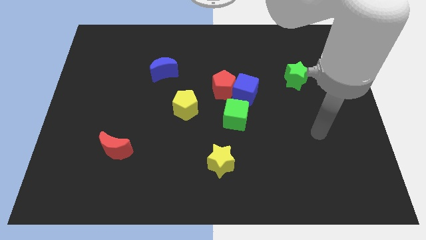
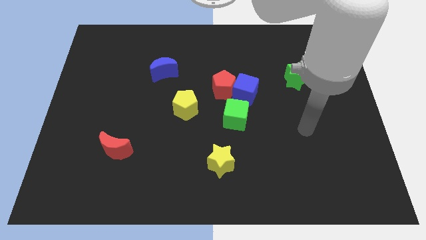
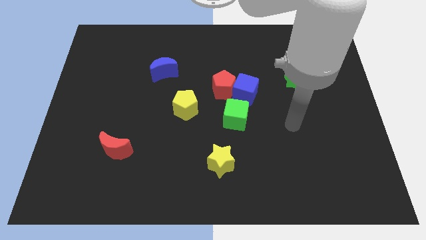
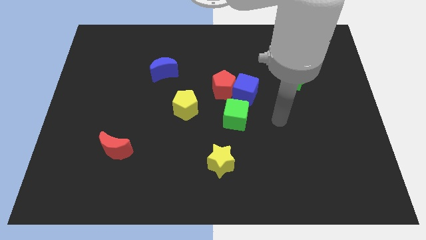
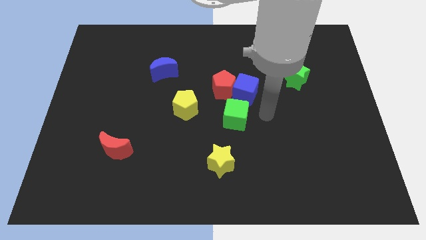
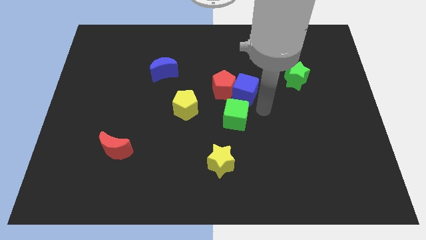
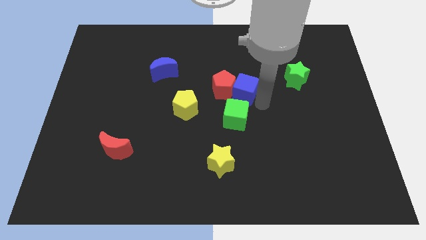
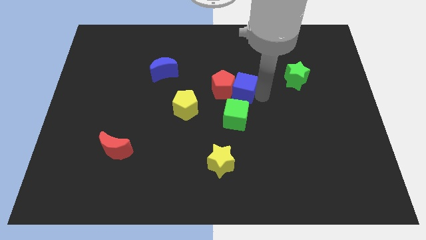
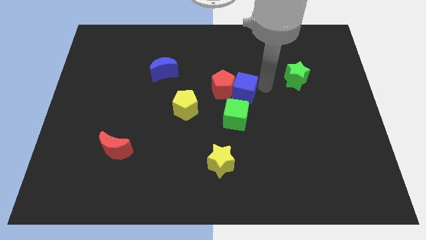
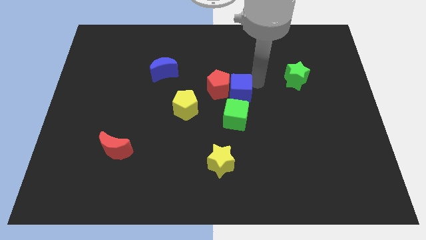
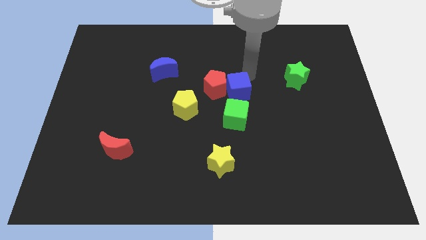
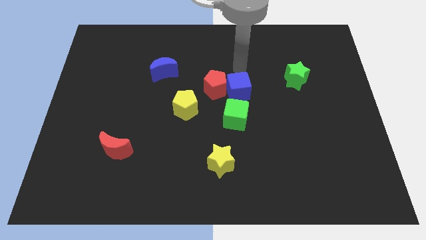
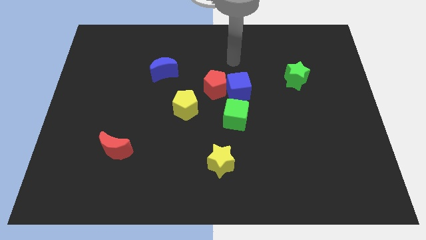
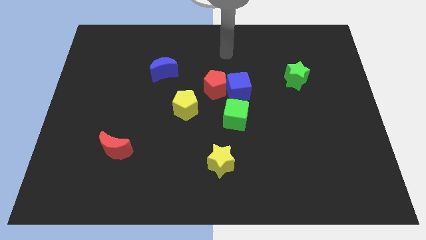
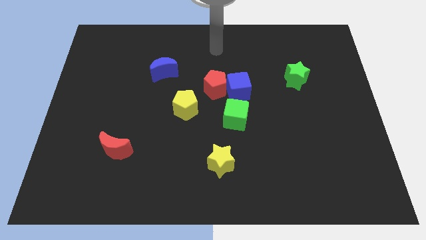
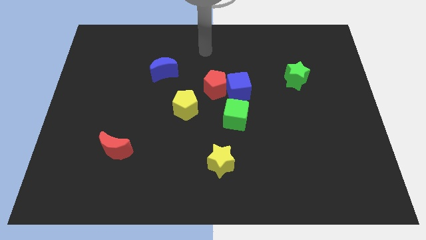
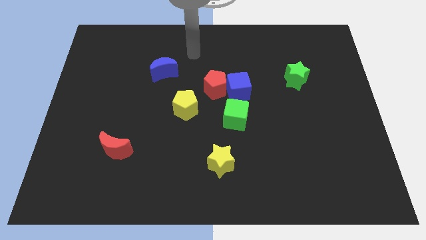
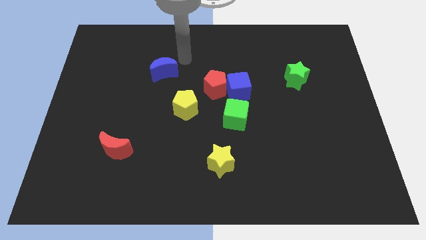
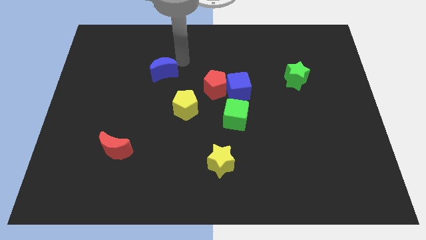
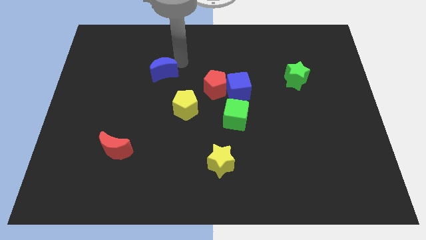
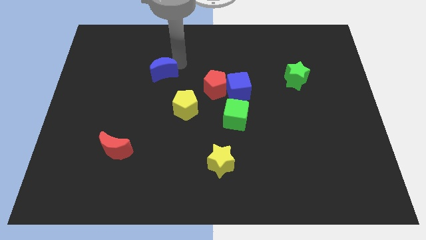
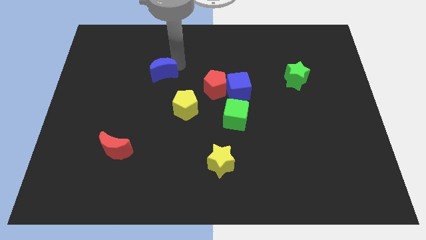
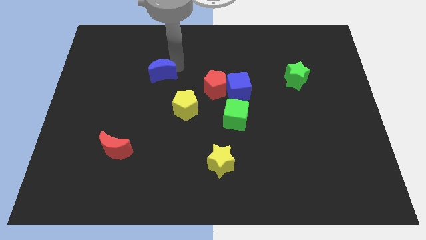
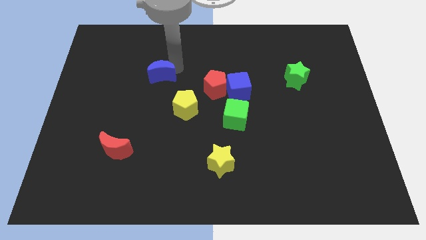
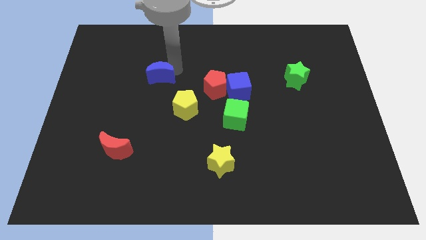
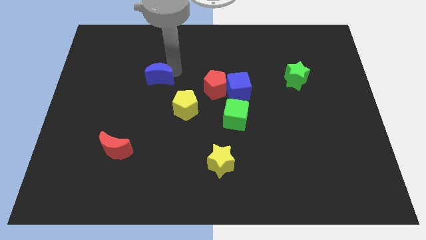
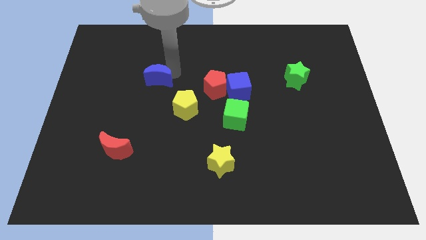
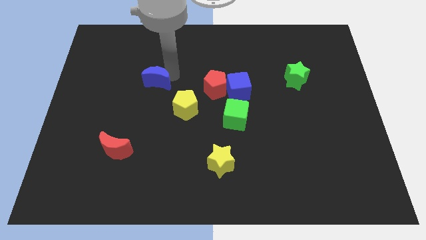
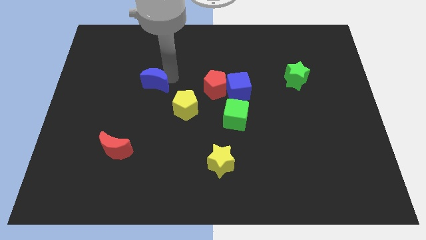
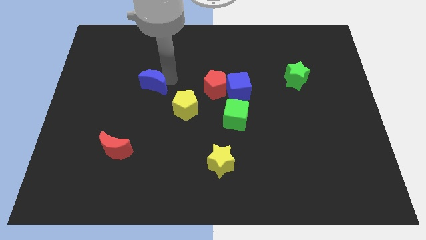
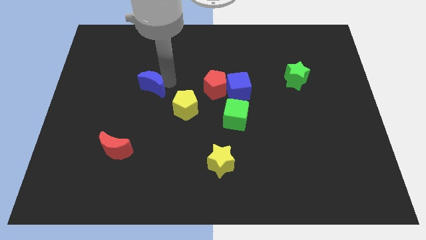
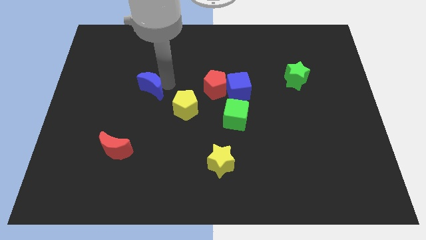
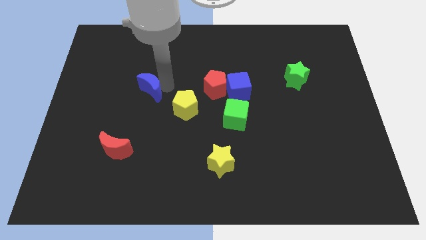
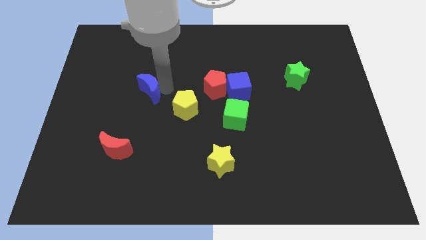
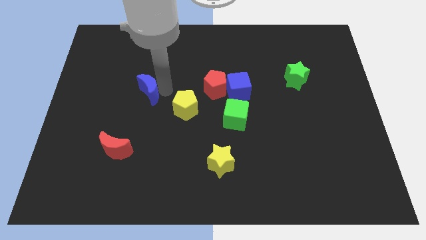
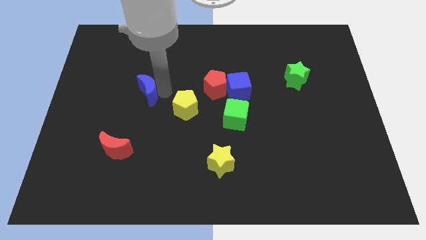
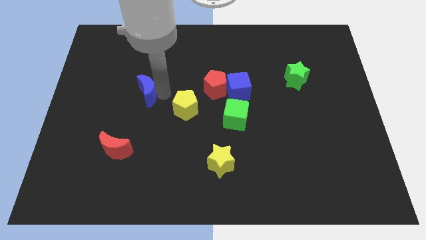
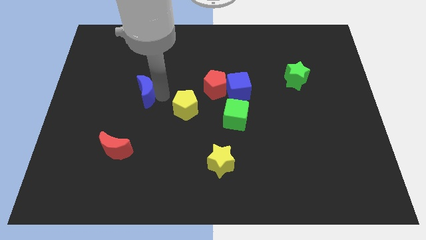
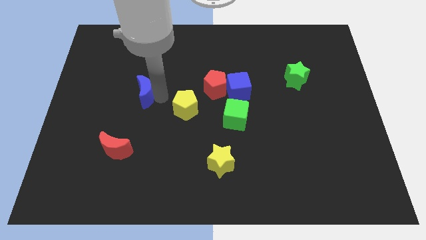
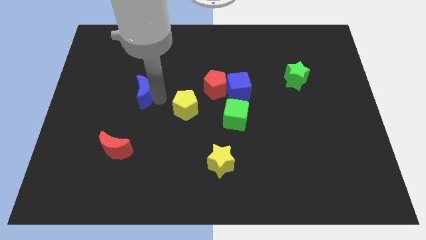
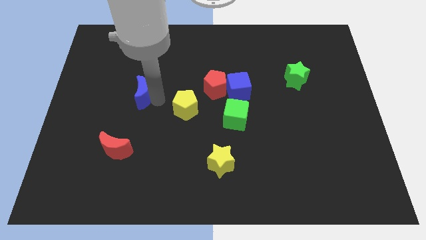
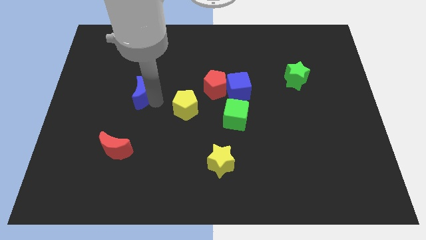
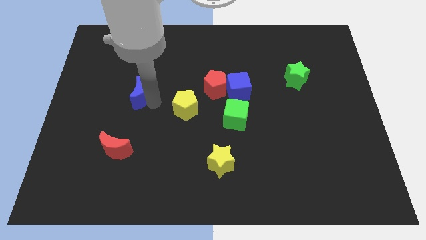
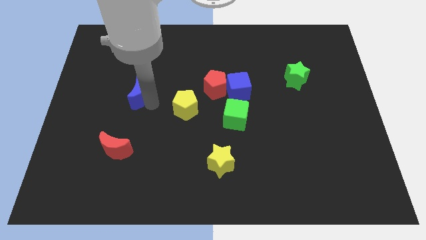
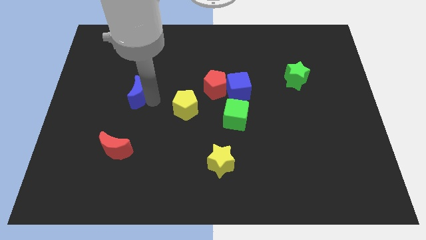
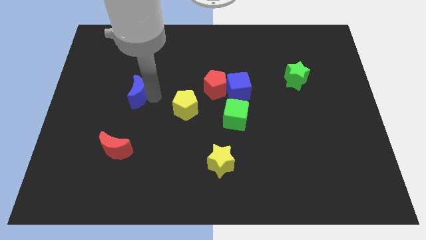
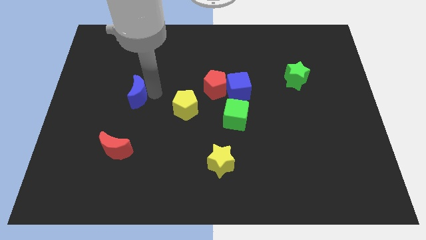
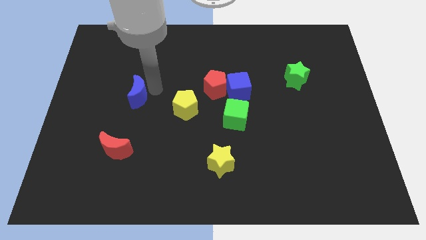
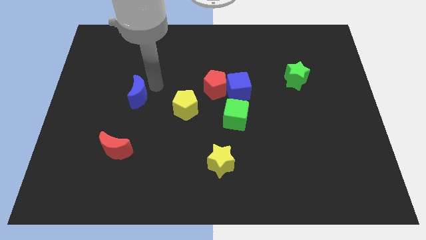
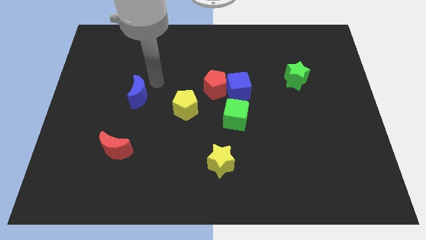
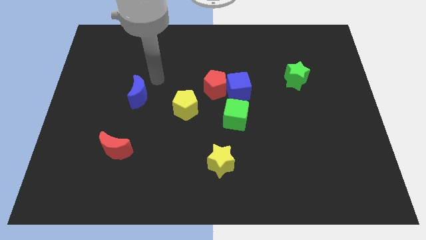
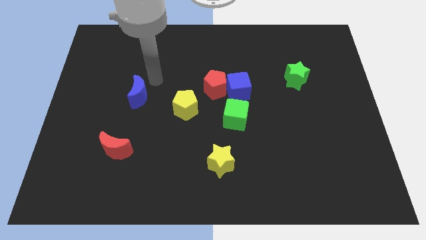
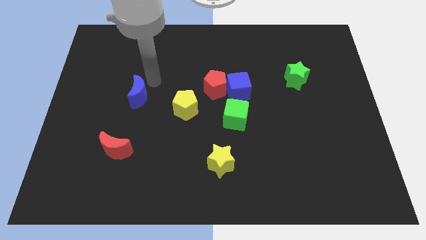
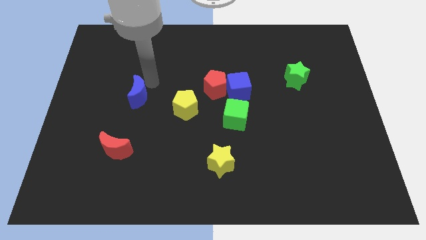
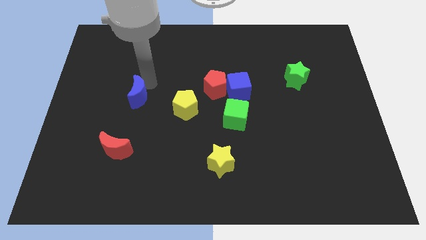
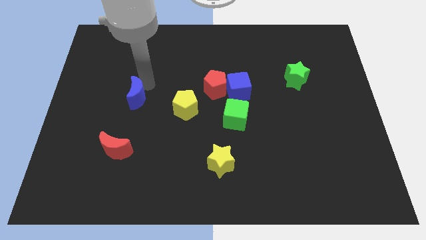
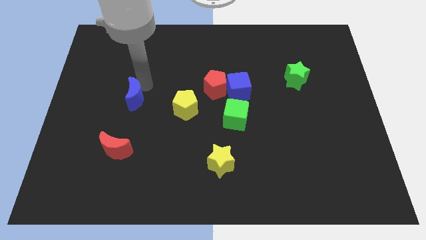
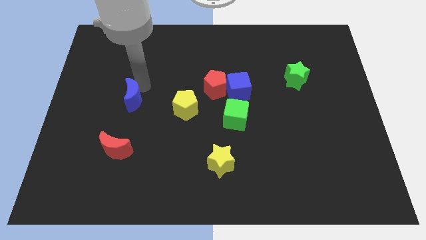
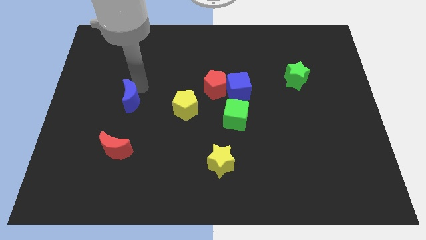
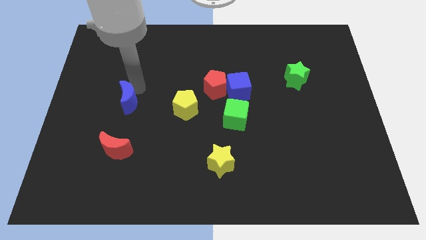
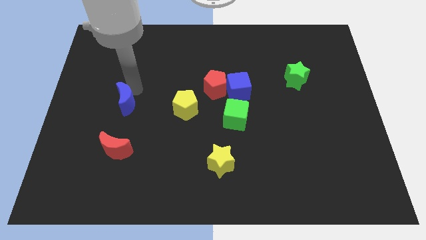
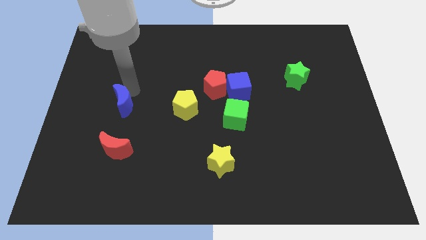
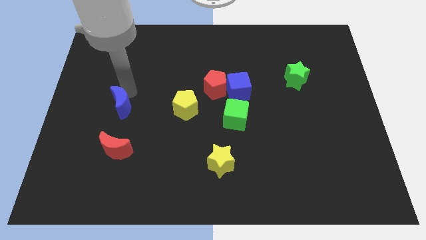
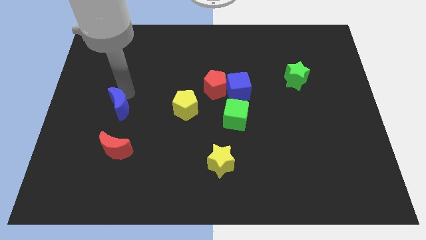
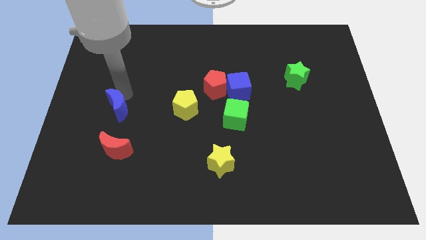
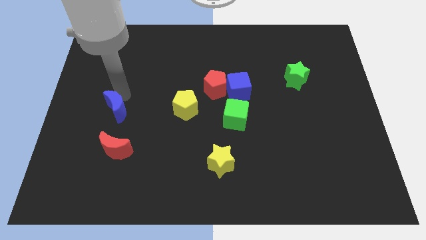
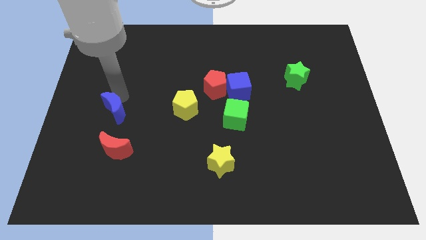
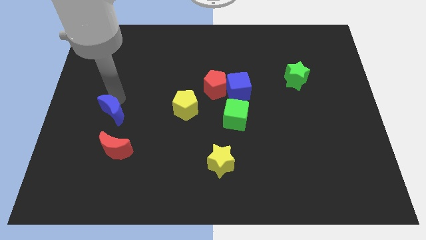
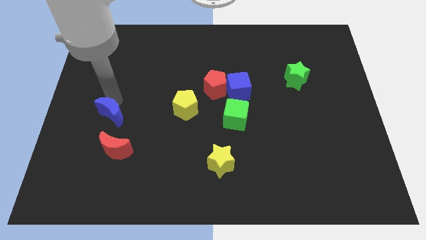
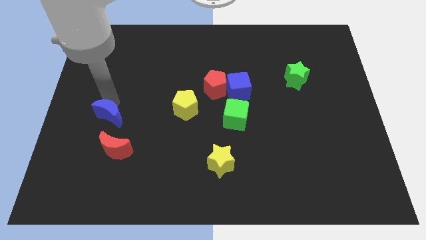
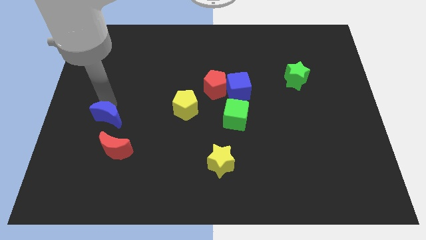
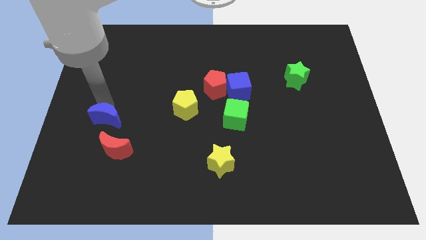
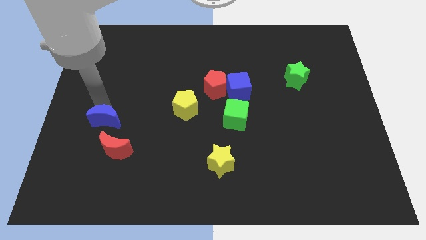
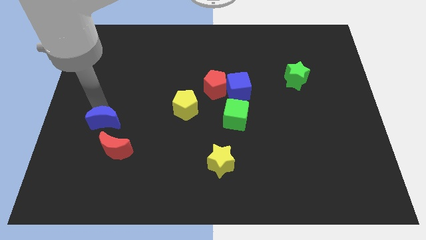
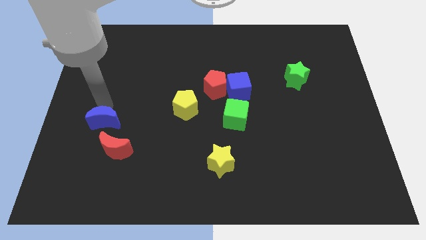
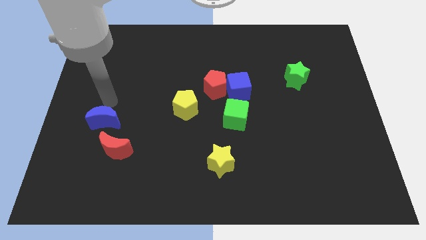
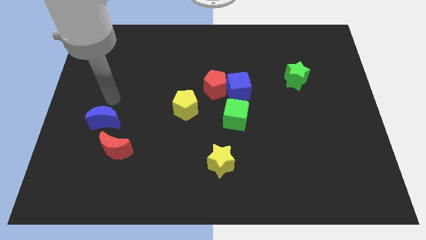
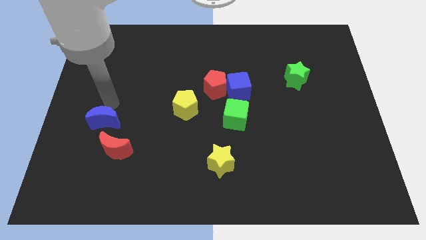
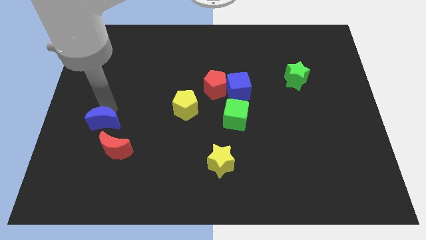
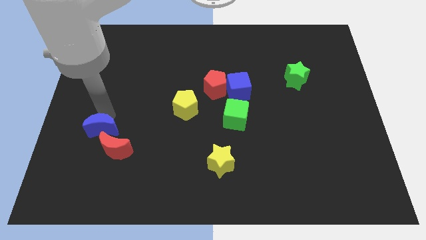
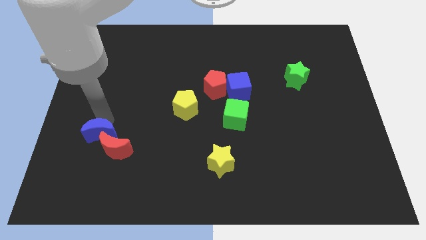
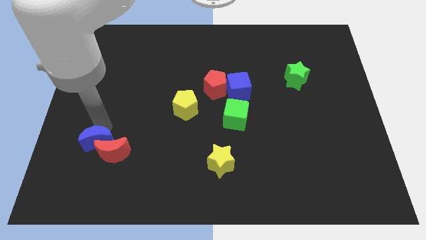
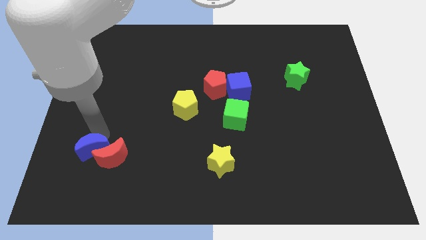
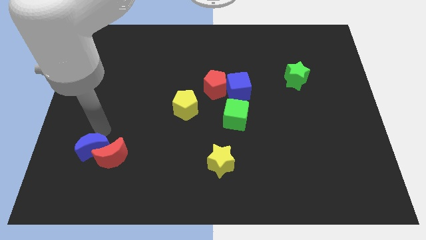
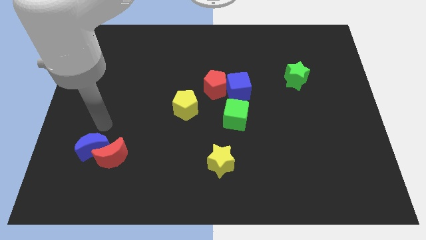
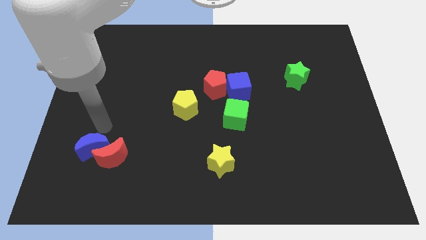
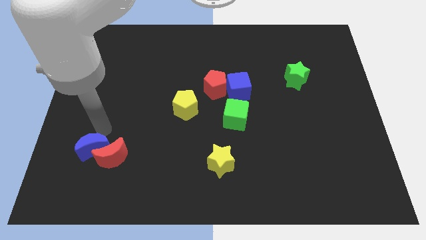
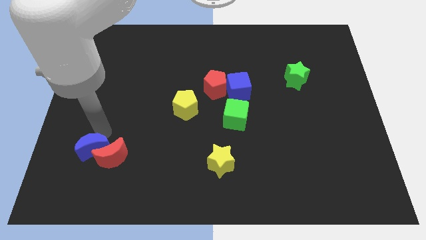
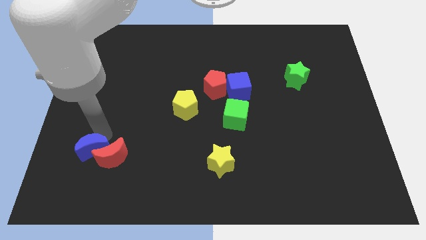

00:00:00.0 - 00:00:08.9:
push the blue moon to the bottom left of the red moon
